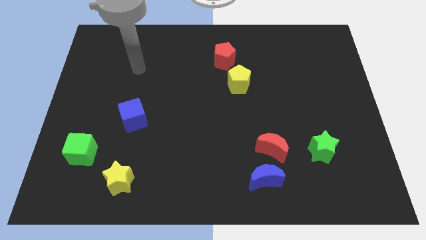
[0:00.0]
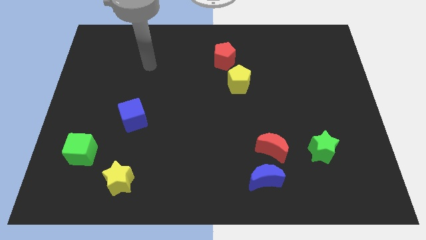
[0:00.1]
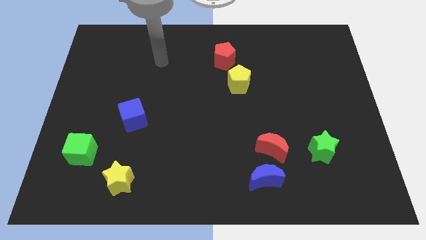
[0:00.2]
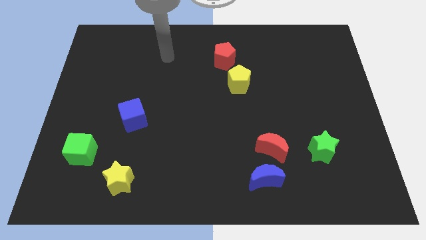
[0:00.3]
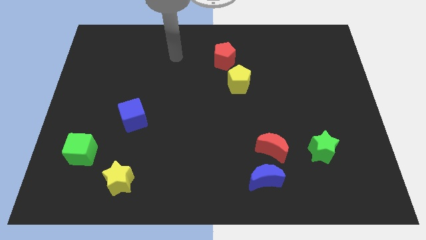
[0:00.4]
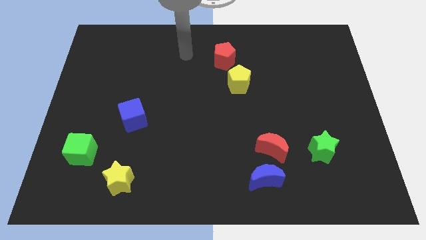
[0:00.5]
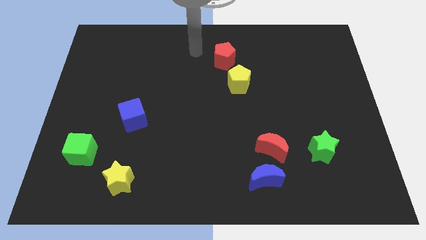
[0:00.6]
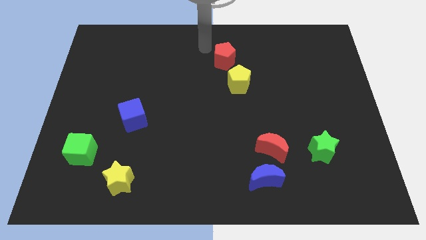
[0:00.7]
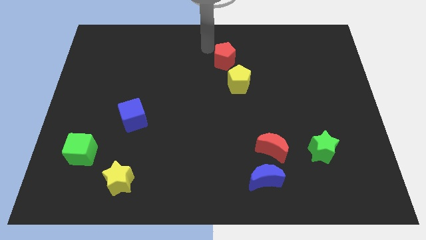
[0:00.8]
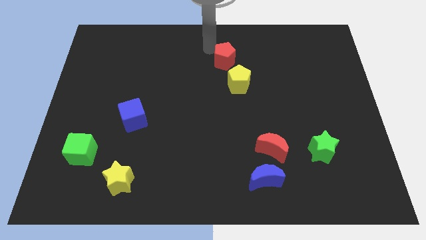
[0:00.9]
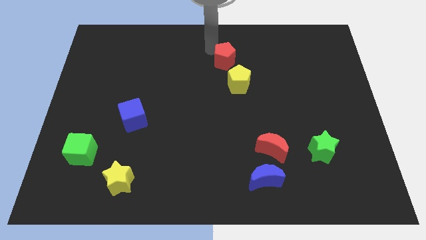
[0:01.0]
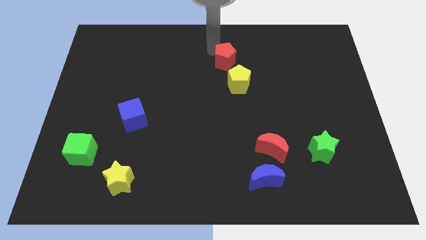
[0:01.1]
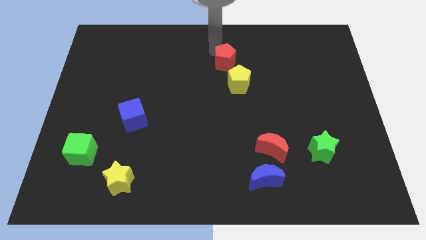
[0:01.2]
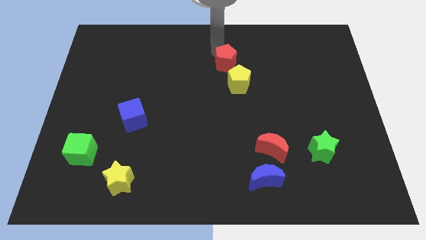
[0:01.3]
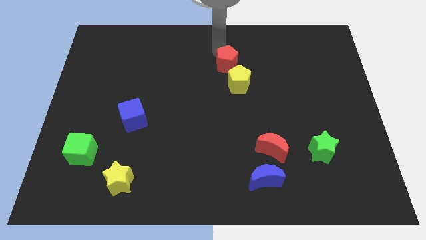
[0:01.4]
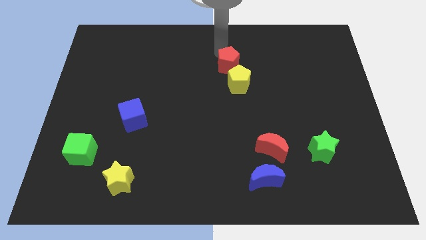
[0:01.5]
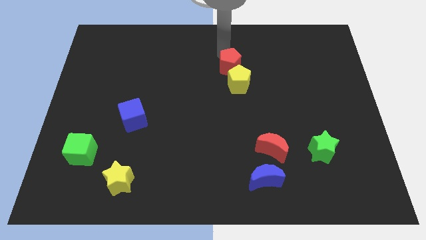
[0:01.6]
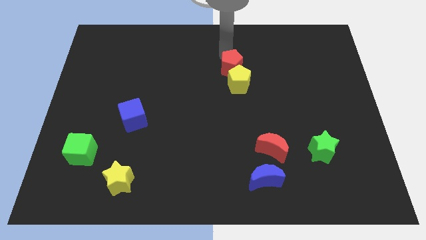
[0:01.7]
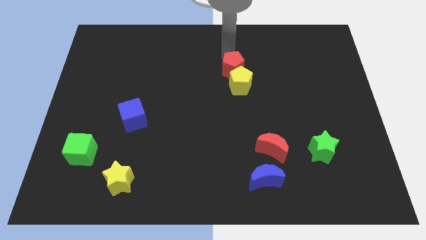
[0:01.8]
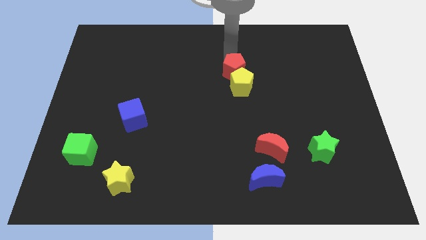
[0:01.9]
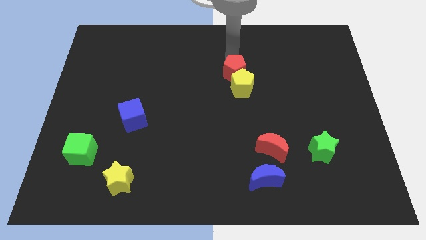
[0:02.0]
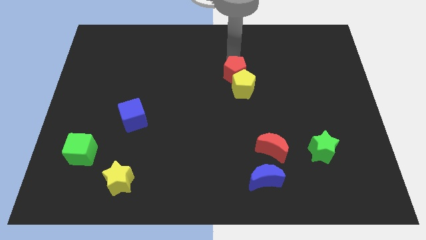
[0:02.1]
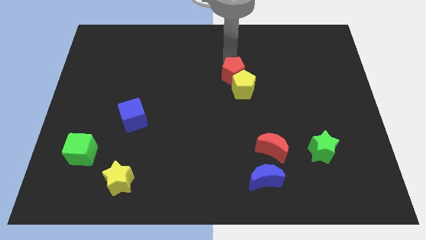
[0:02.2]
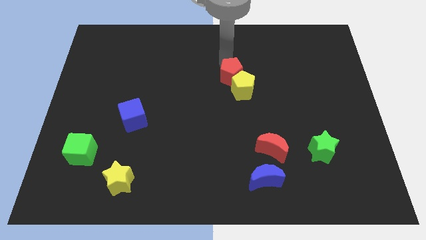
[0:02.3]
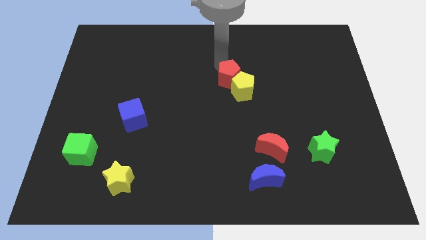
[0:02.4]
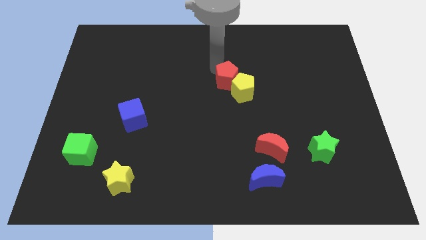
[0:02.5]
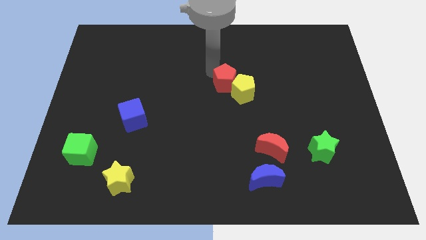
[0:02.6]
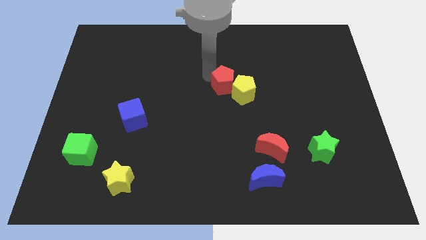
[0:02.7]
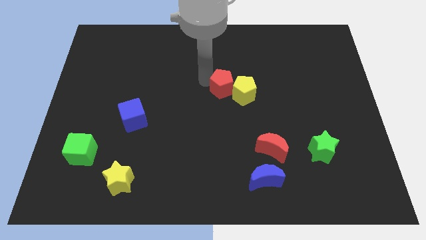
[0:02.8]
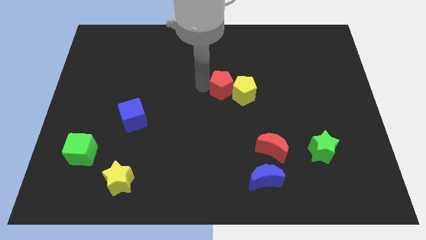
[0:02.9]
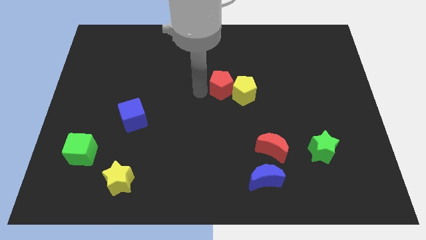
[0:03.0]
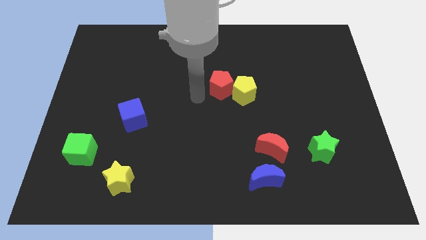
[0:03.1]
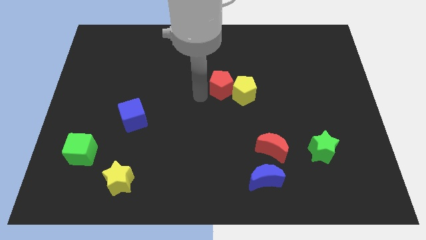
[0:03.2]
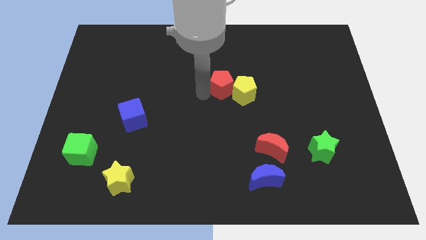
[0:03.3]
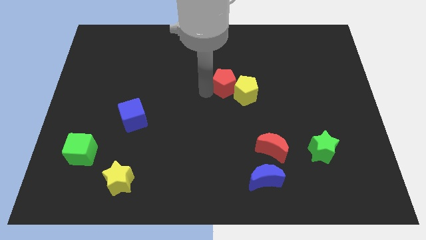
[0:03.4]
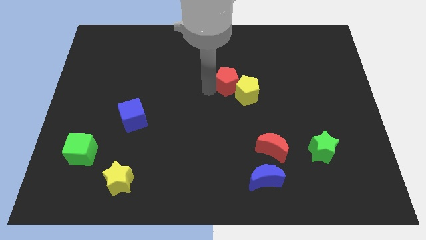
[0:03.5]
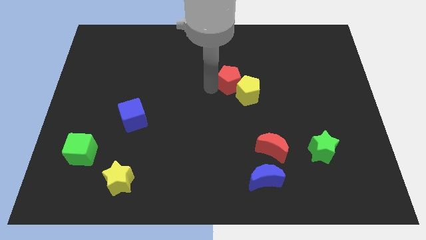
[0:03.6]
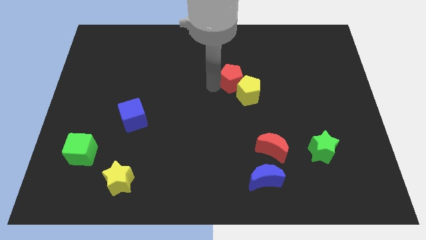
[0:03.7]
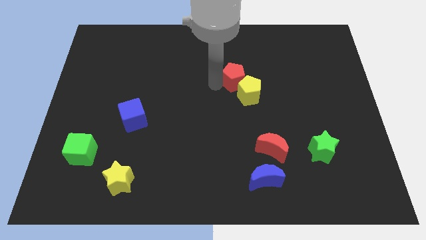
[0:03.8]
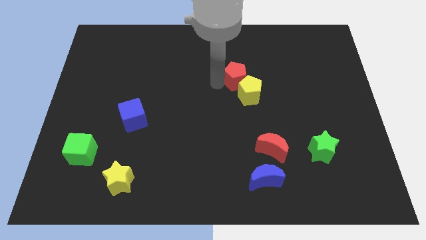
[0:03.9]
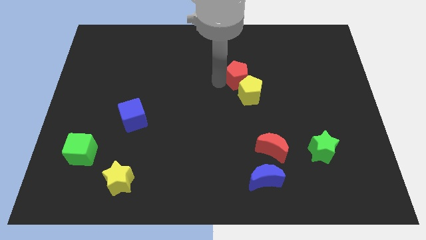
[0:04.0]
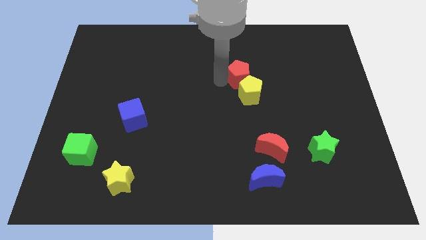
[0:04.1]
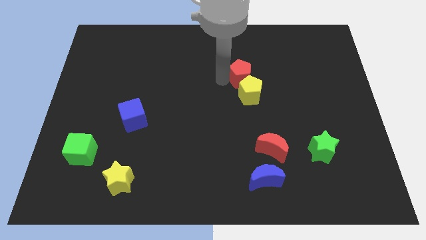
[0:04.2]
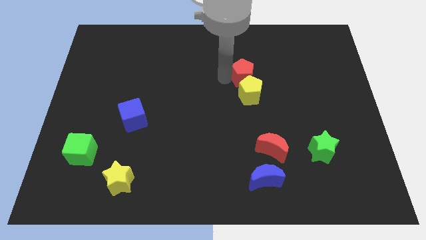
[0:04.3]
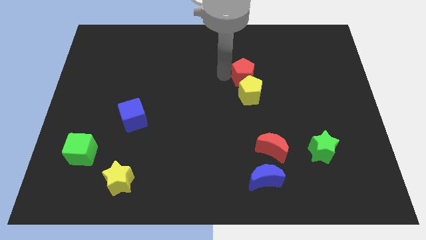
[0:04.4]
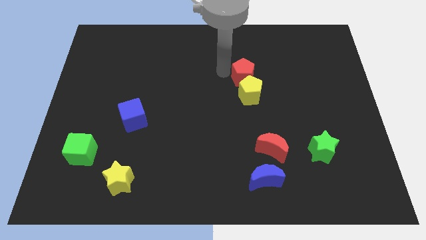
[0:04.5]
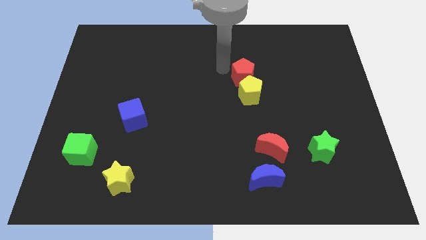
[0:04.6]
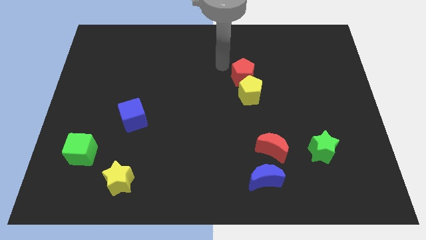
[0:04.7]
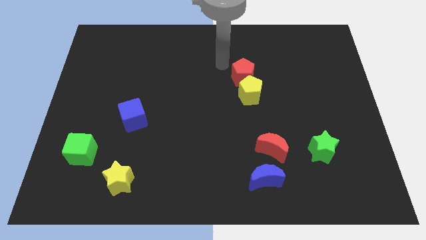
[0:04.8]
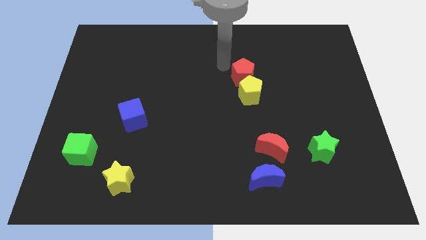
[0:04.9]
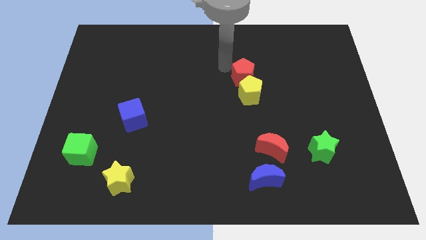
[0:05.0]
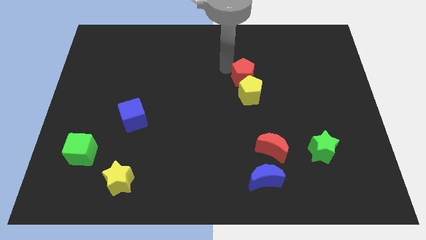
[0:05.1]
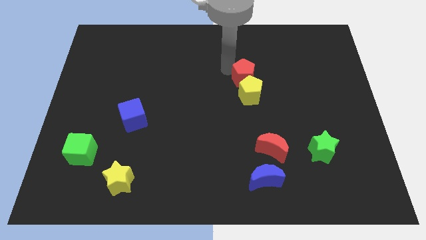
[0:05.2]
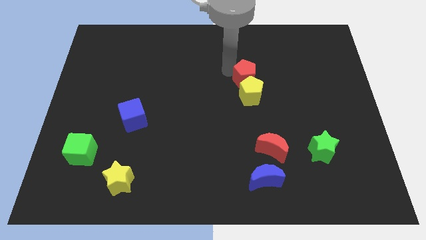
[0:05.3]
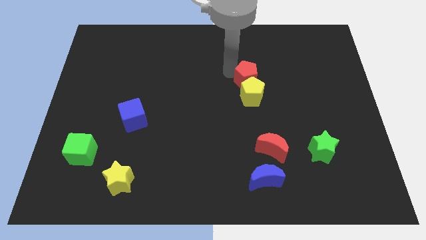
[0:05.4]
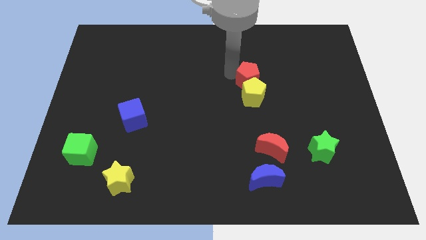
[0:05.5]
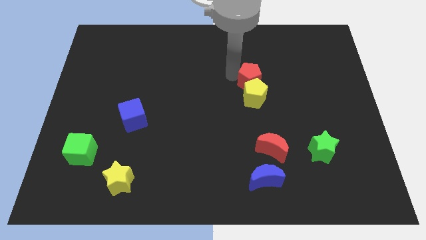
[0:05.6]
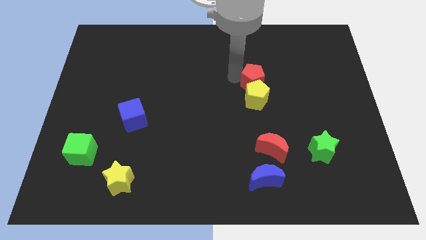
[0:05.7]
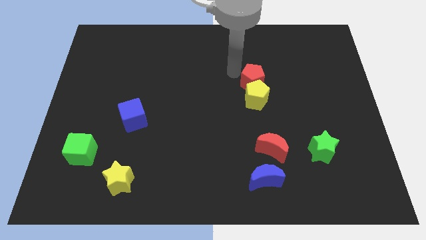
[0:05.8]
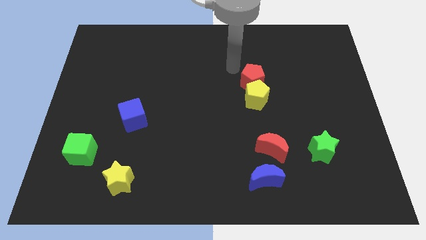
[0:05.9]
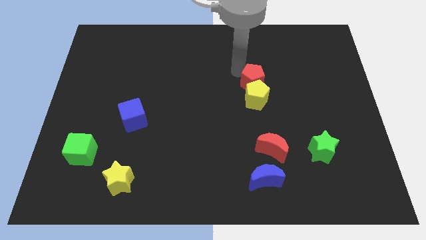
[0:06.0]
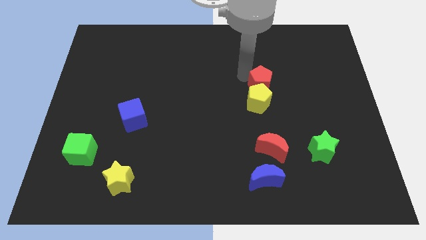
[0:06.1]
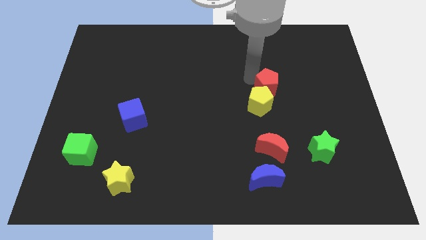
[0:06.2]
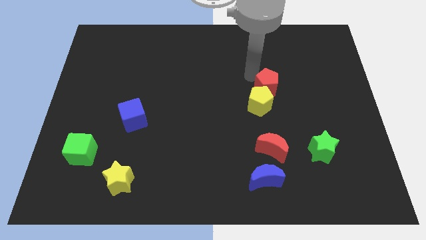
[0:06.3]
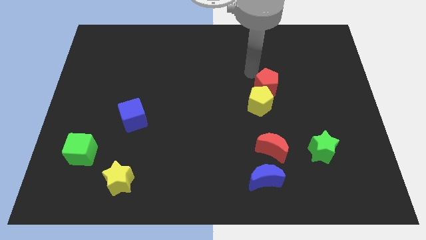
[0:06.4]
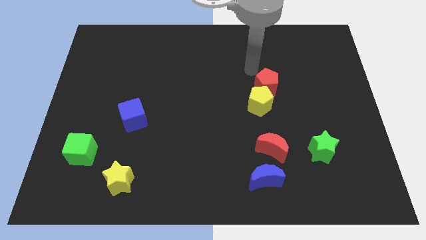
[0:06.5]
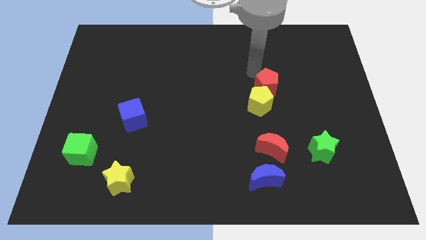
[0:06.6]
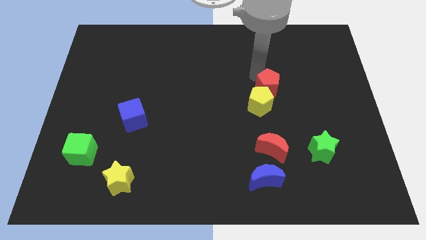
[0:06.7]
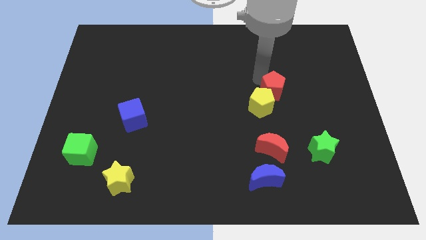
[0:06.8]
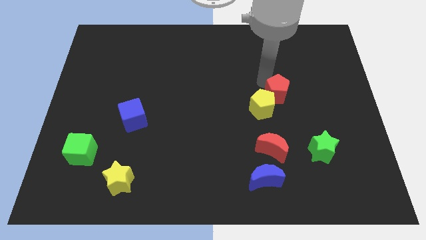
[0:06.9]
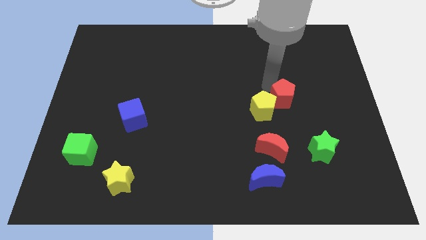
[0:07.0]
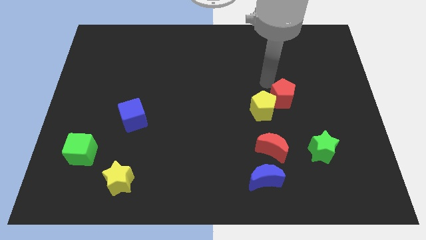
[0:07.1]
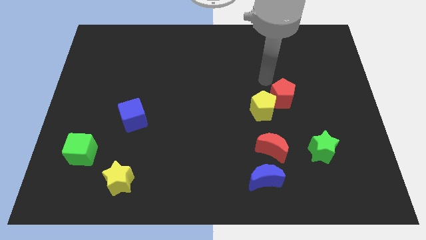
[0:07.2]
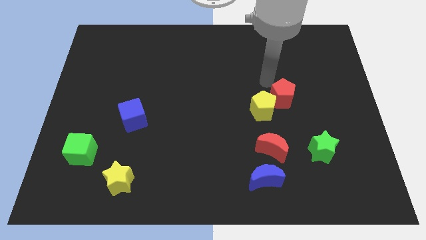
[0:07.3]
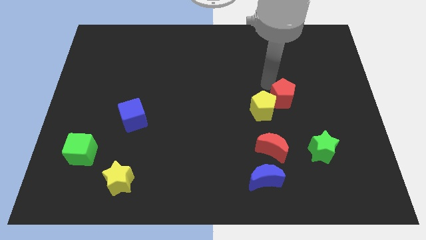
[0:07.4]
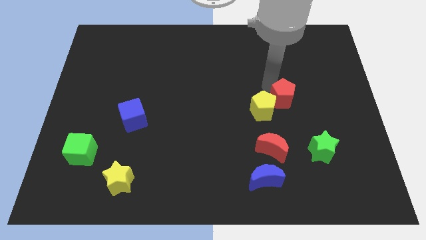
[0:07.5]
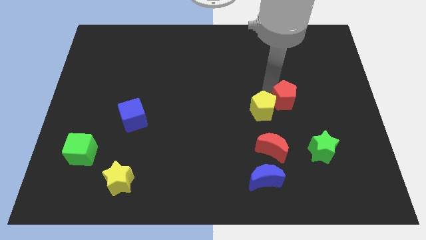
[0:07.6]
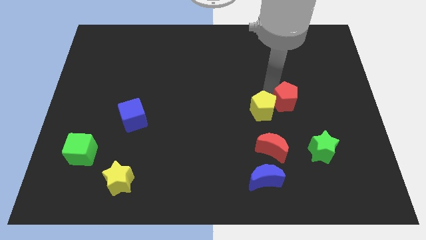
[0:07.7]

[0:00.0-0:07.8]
move the red pentagon down and right

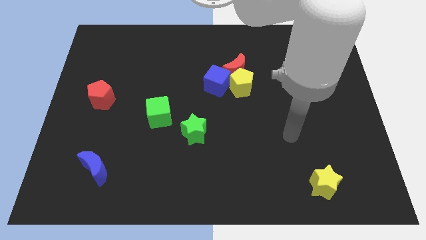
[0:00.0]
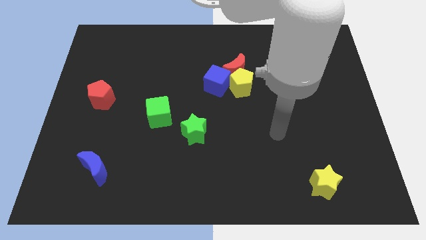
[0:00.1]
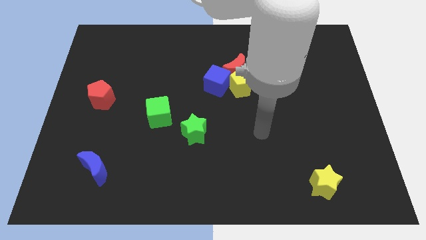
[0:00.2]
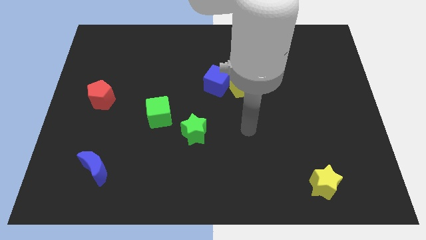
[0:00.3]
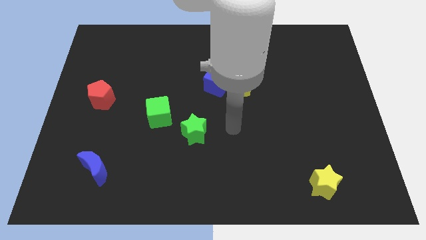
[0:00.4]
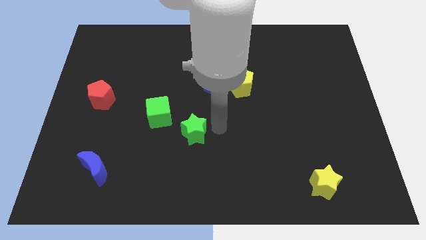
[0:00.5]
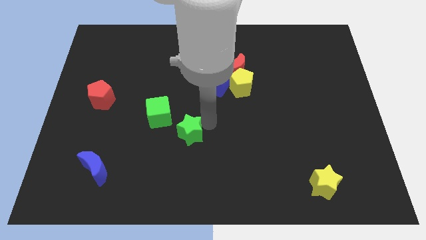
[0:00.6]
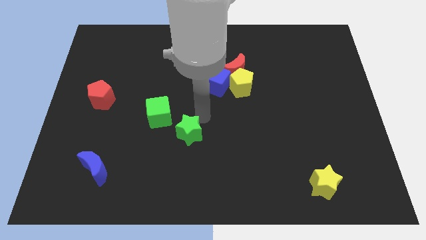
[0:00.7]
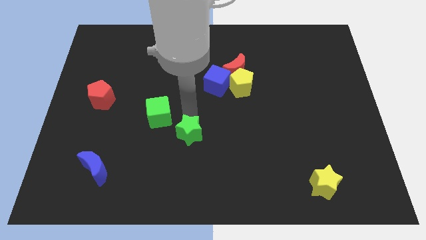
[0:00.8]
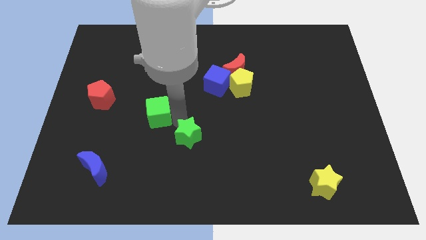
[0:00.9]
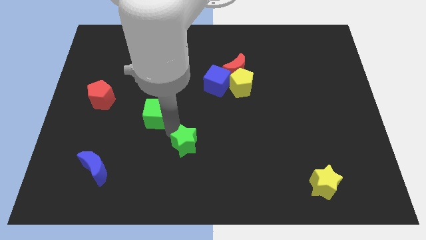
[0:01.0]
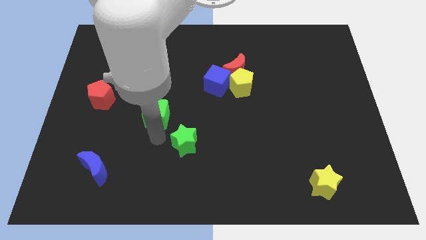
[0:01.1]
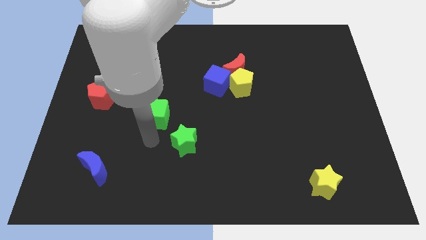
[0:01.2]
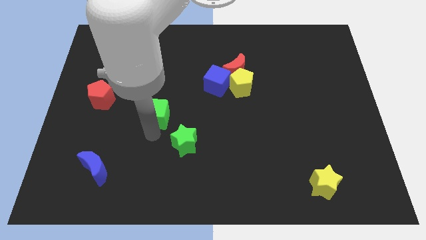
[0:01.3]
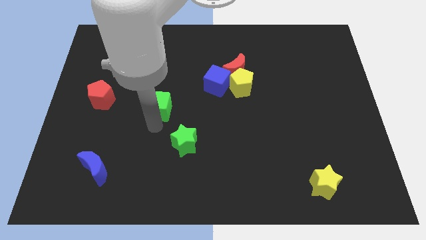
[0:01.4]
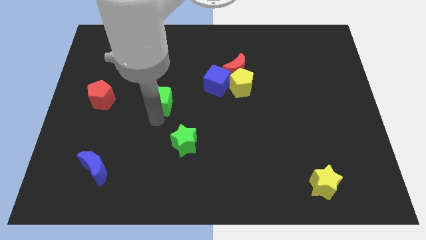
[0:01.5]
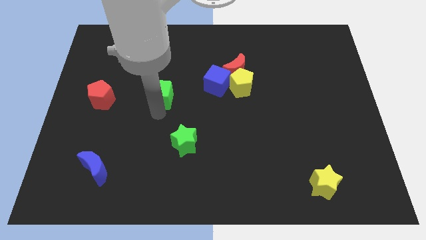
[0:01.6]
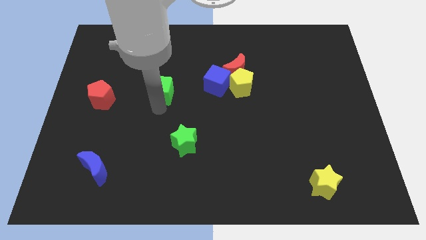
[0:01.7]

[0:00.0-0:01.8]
slightly push the green cube up
